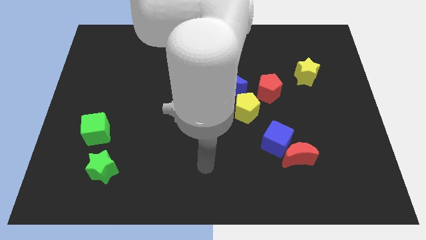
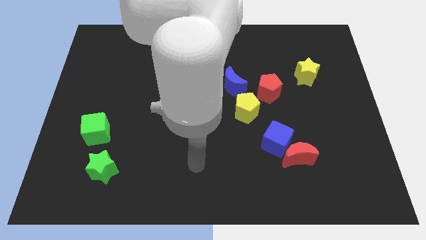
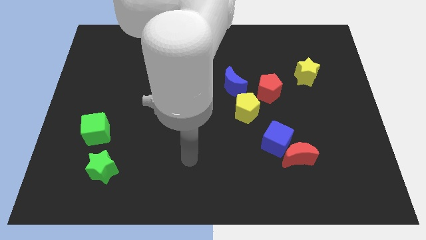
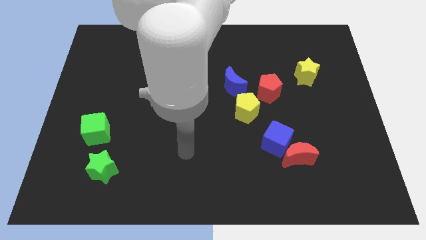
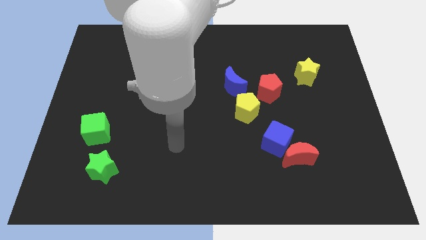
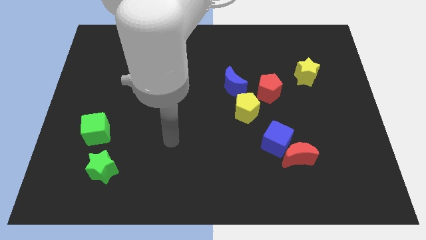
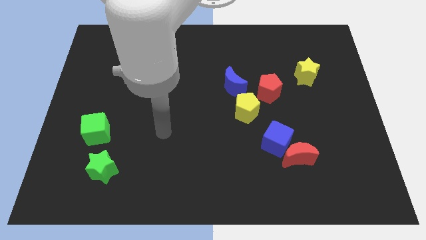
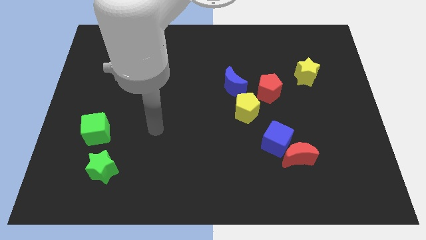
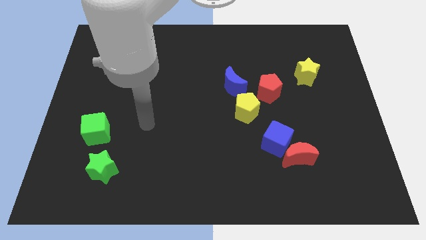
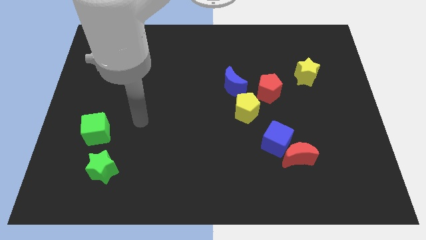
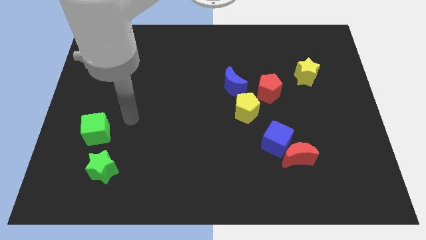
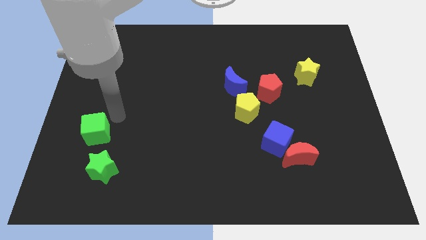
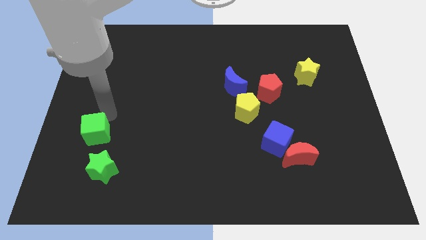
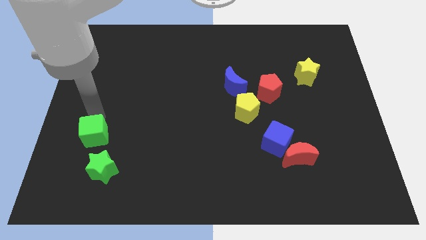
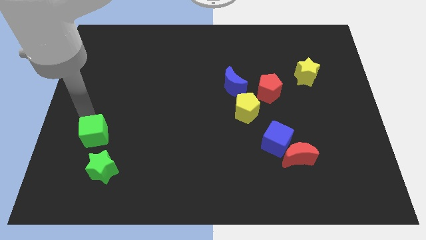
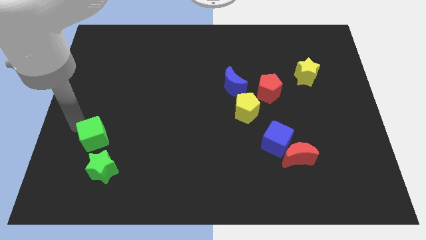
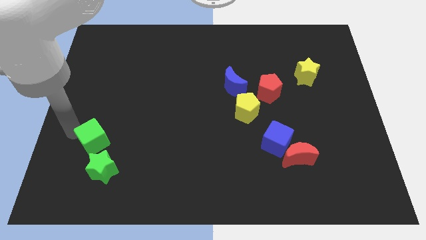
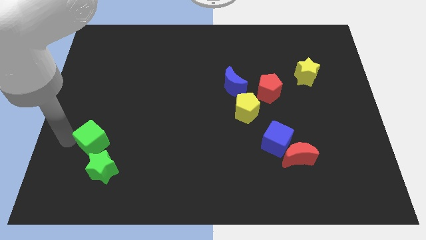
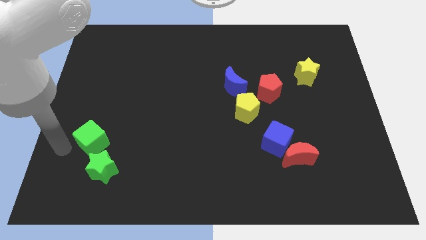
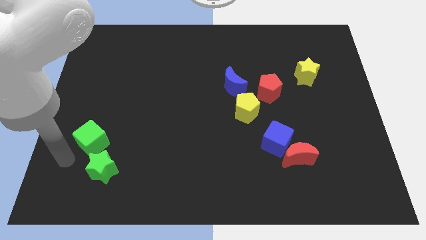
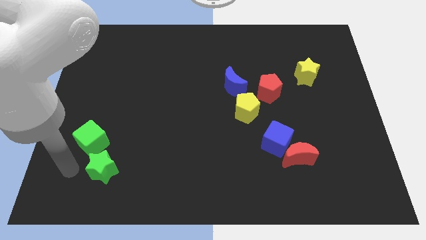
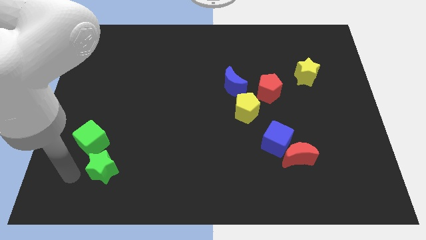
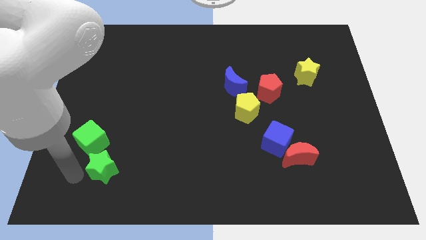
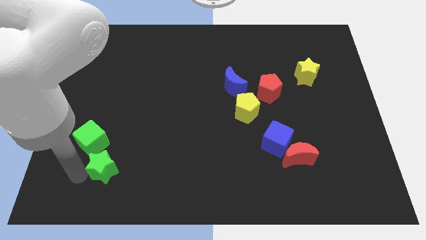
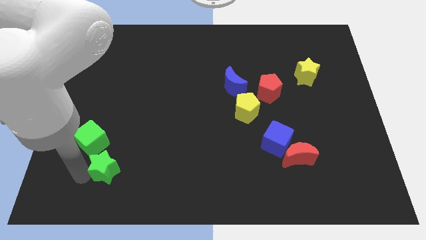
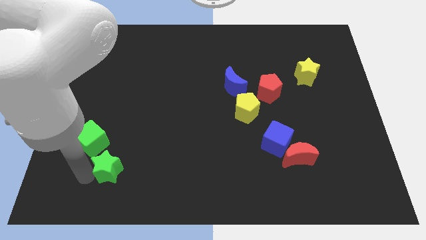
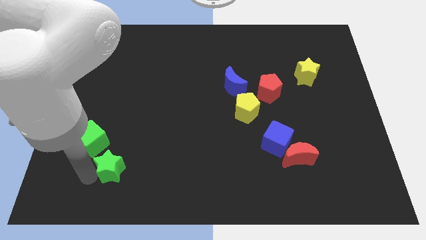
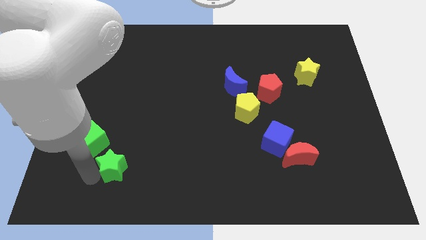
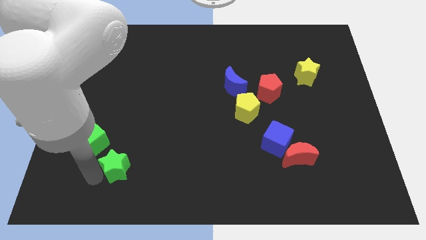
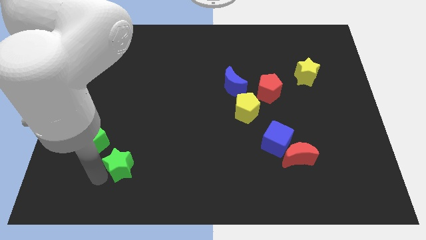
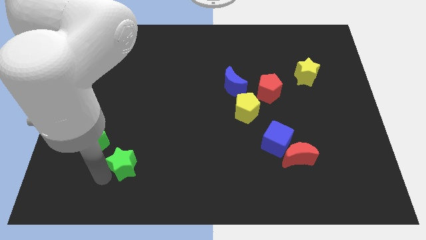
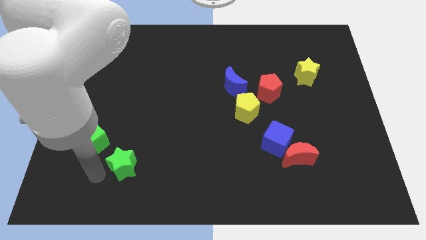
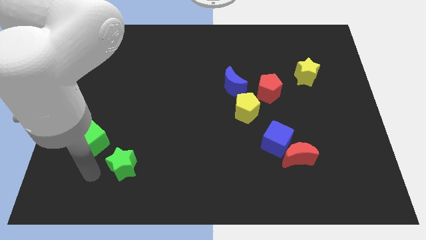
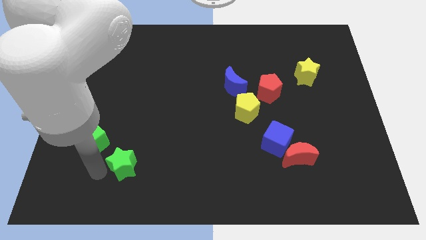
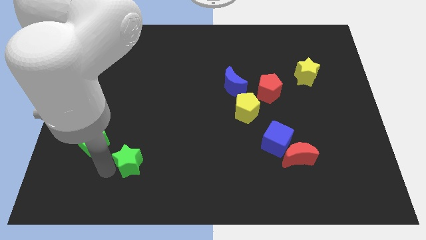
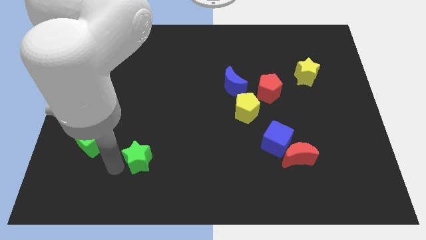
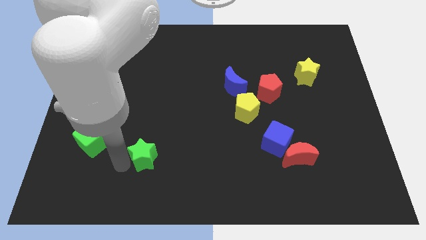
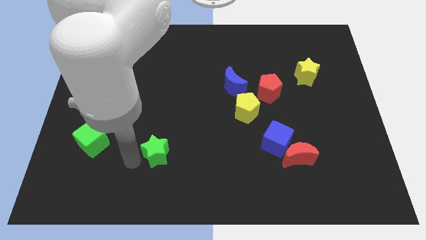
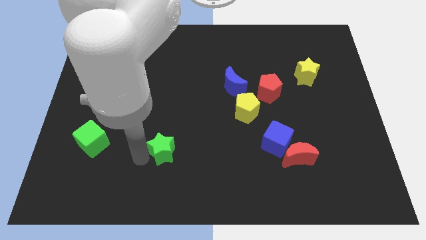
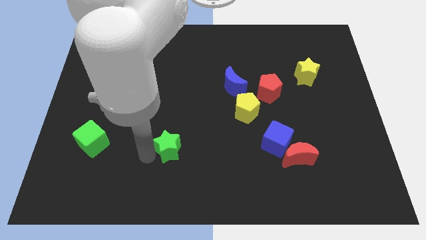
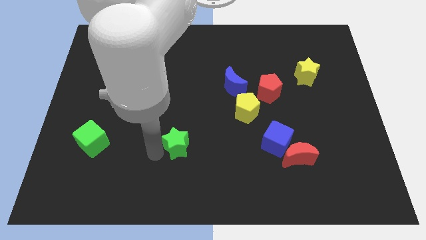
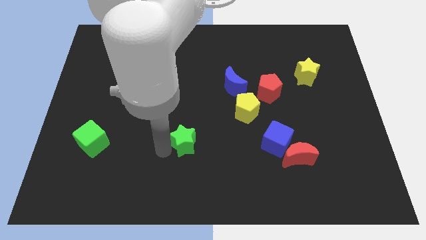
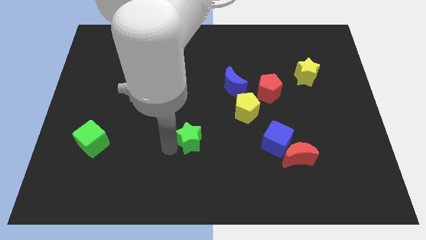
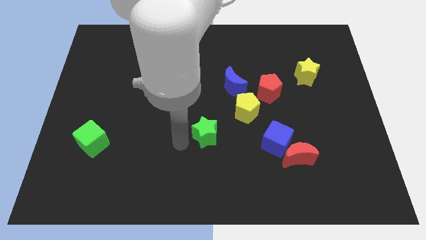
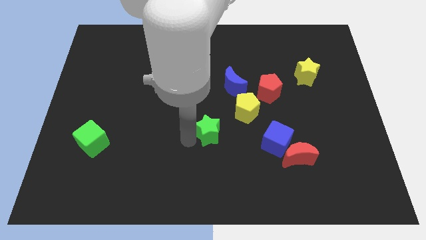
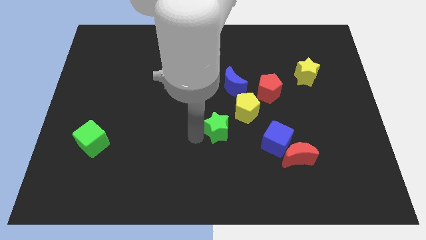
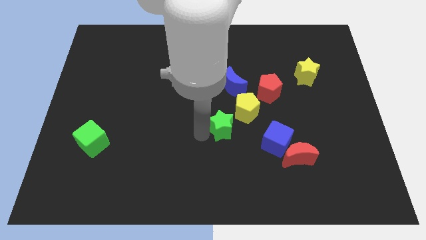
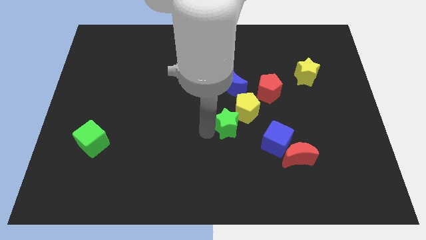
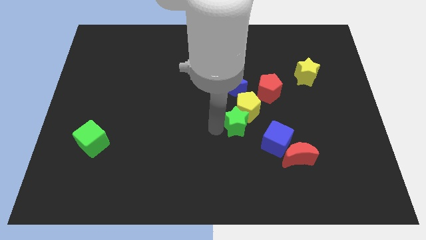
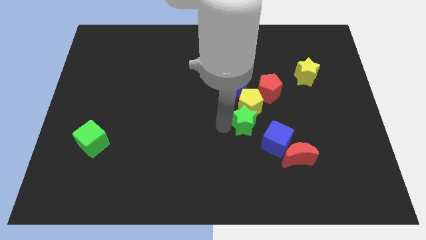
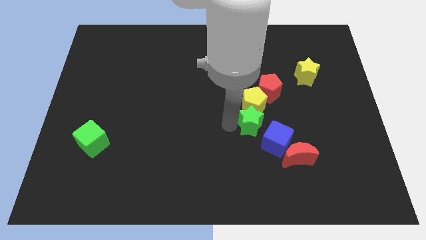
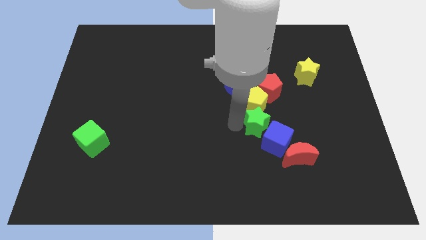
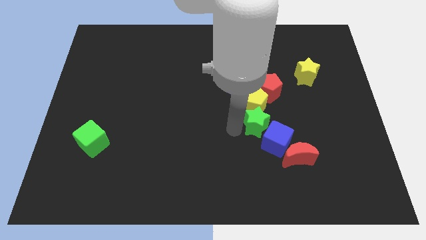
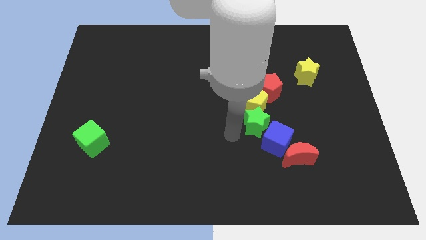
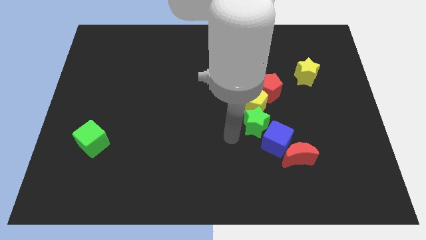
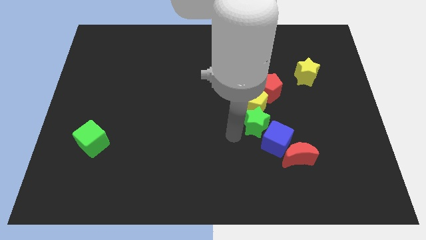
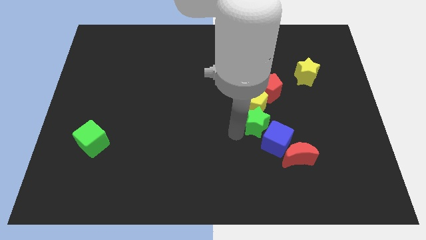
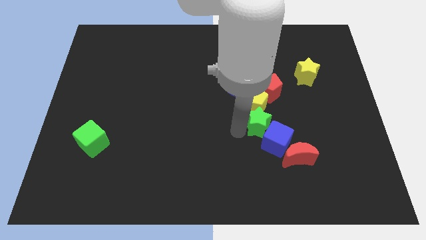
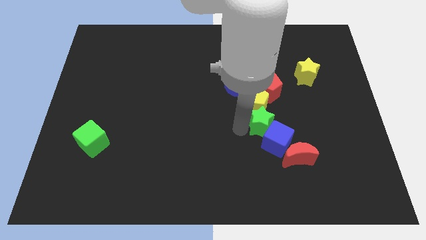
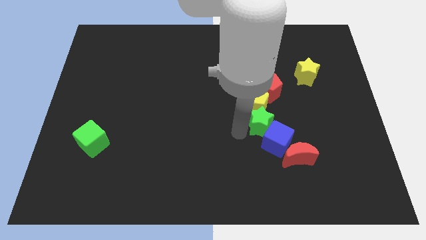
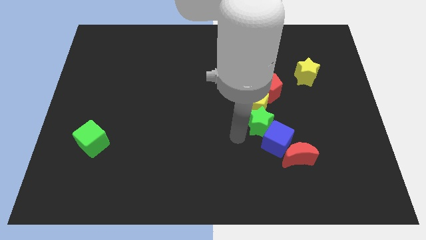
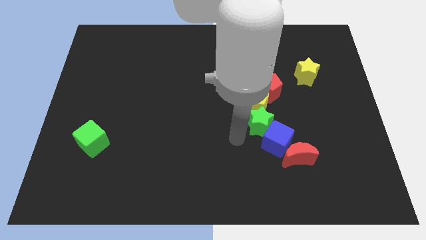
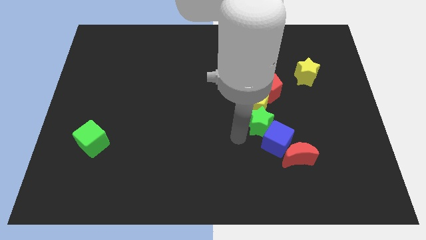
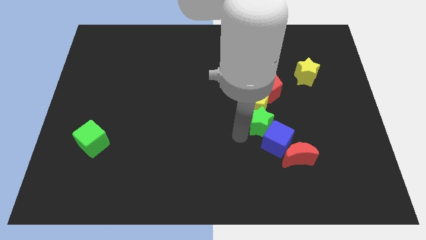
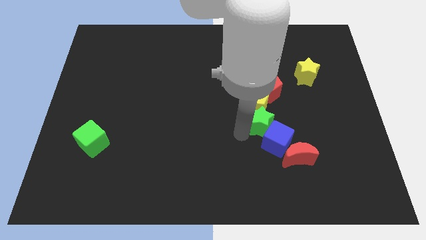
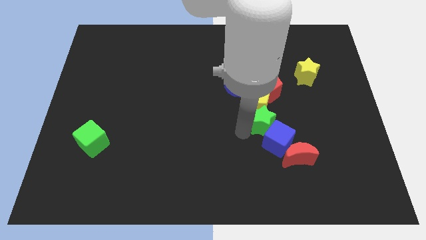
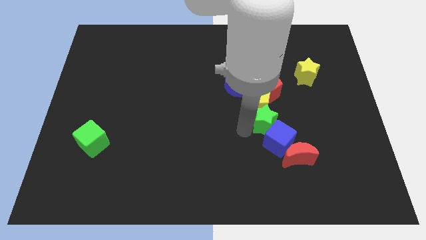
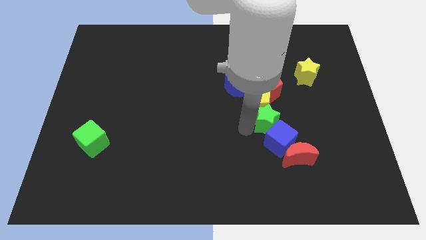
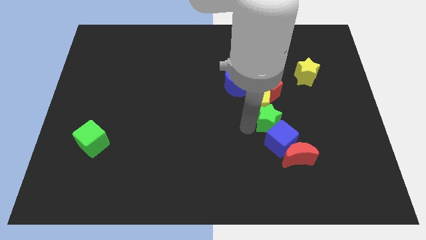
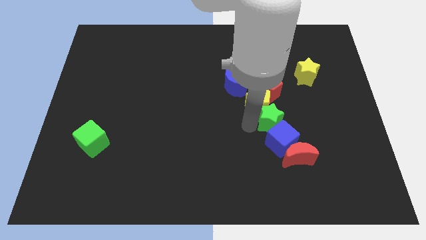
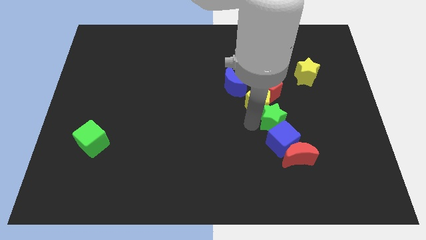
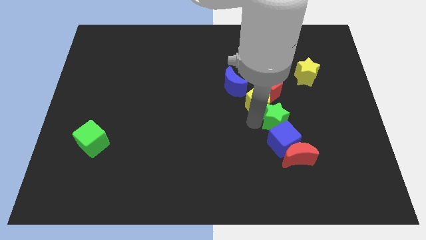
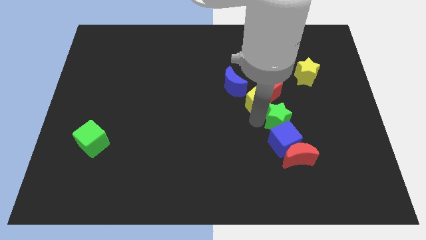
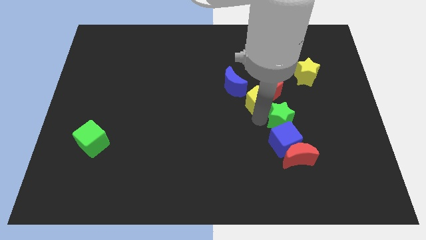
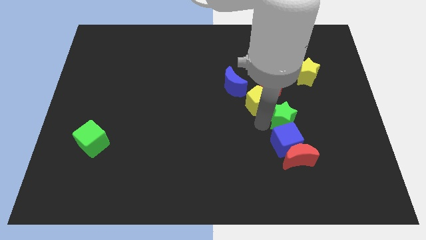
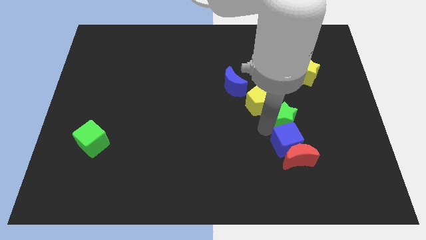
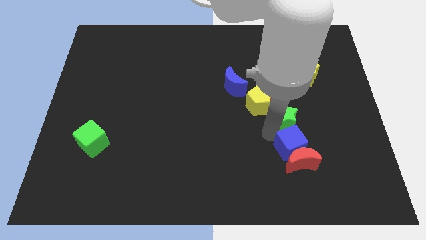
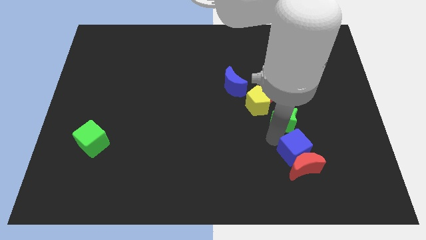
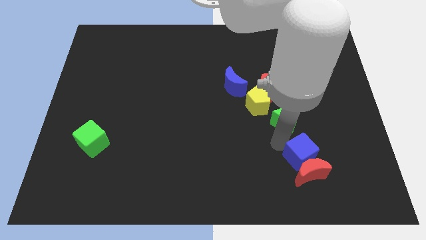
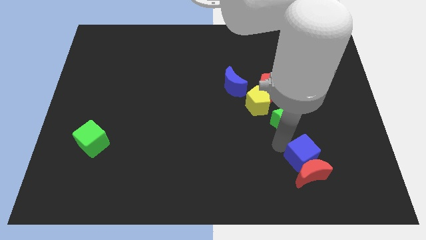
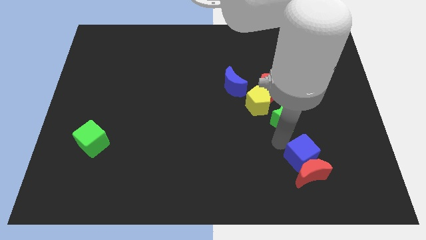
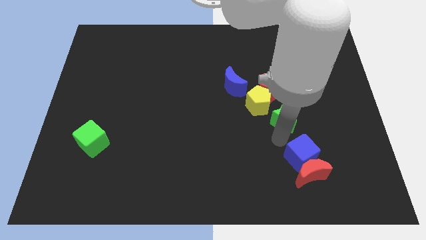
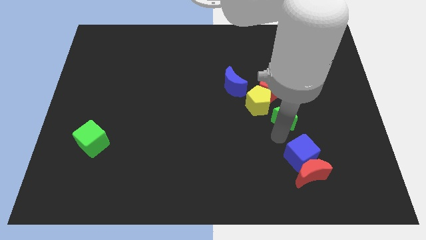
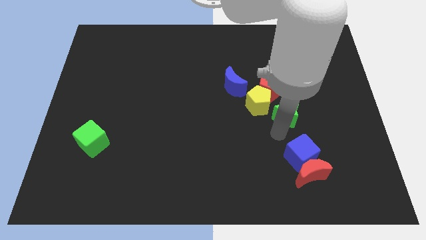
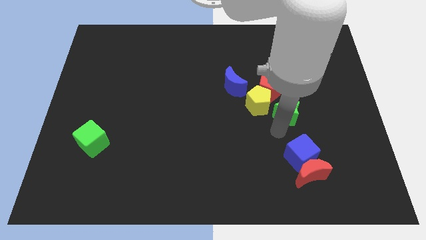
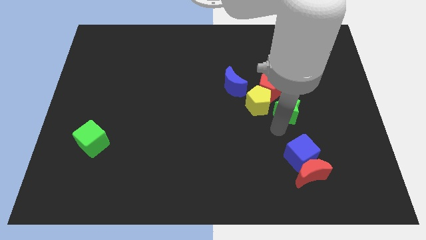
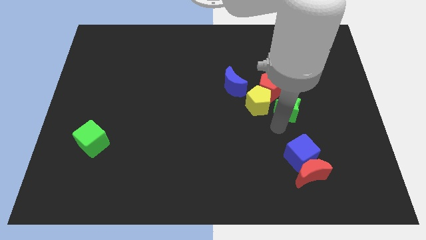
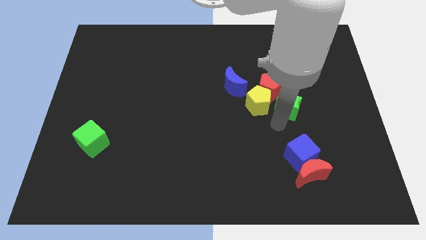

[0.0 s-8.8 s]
move the green star to the bottom left side of the yellow star
